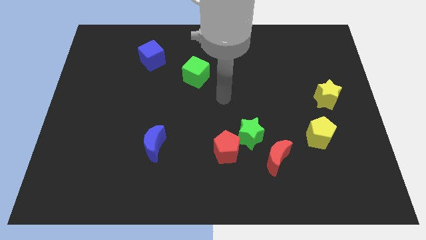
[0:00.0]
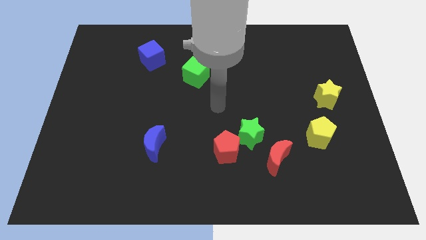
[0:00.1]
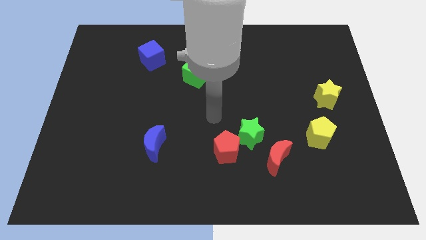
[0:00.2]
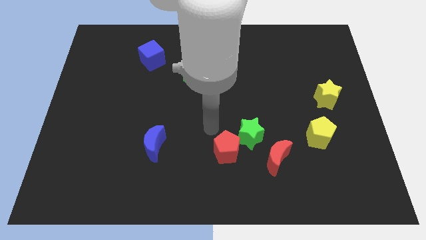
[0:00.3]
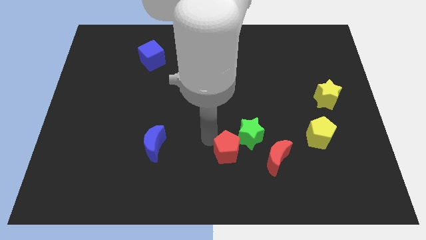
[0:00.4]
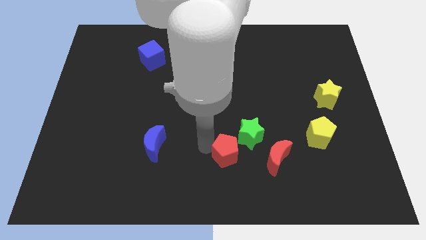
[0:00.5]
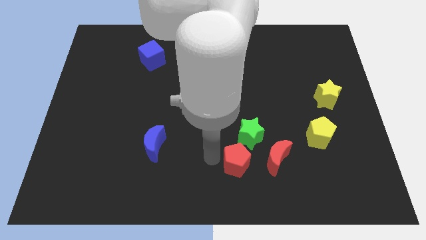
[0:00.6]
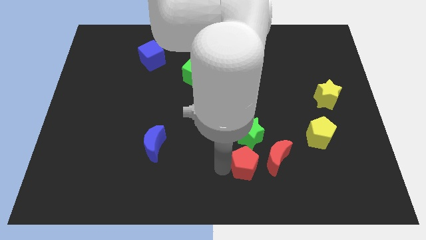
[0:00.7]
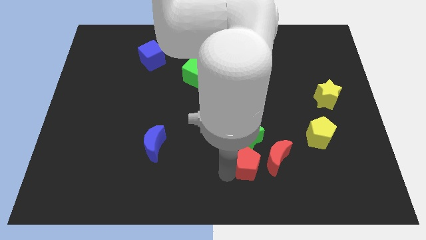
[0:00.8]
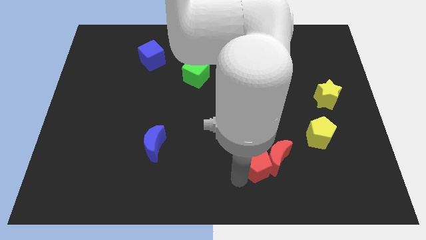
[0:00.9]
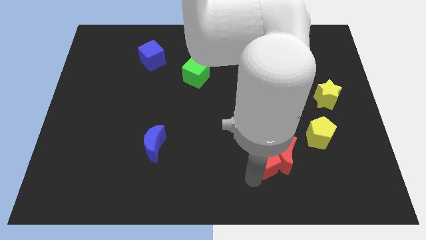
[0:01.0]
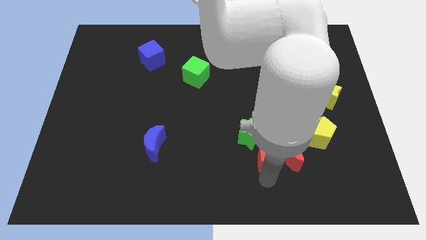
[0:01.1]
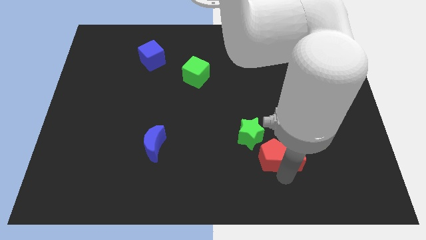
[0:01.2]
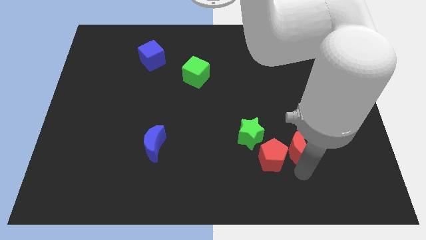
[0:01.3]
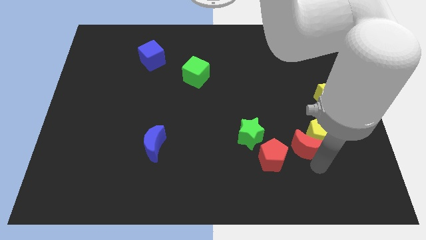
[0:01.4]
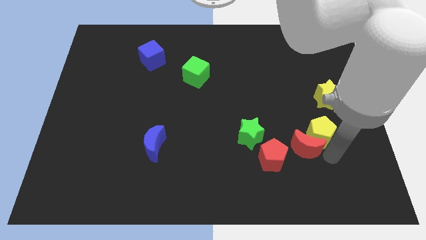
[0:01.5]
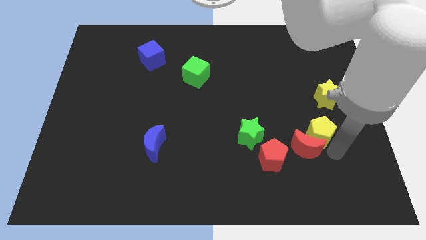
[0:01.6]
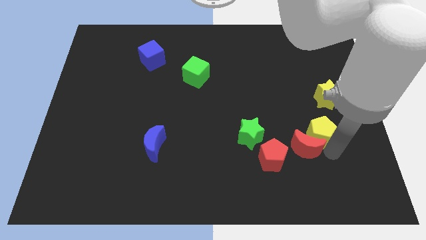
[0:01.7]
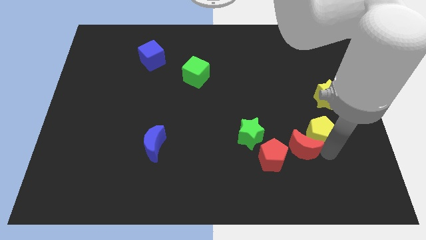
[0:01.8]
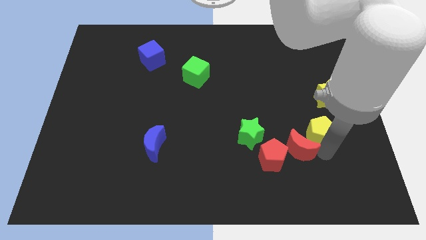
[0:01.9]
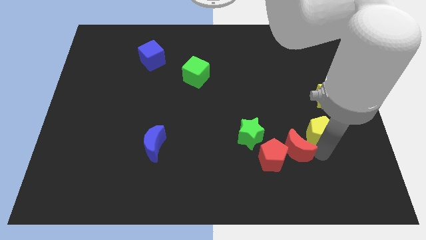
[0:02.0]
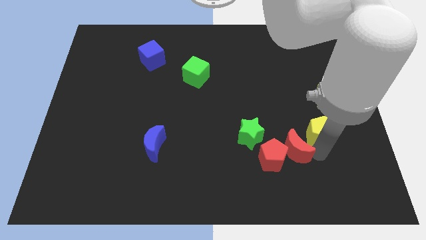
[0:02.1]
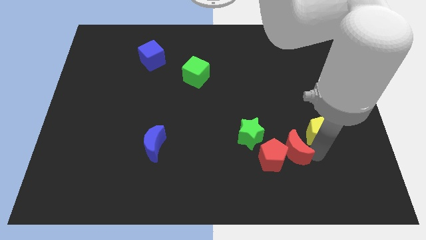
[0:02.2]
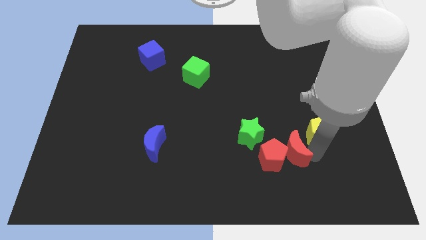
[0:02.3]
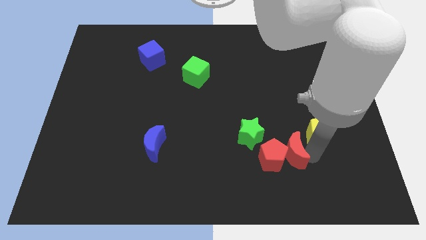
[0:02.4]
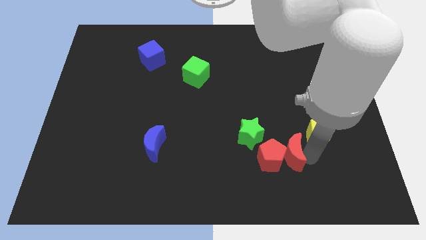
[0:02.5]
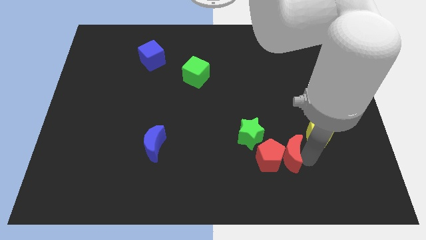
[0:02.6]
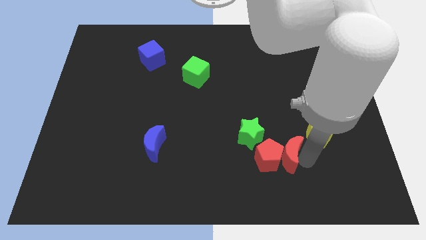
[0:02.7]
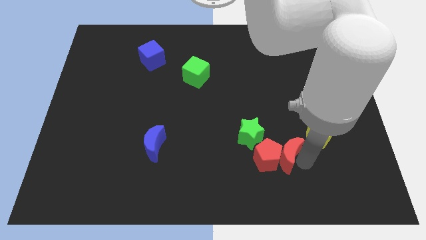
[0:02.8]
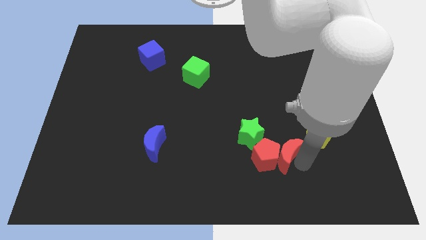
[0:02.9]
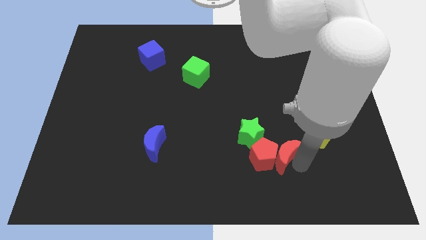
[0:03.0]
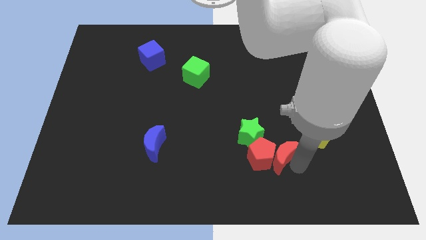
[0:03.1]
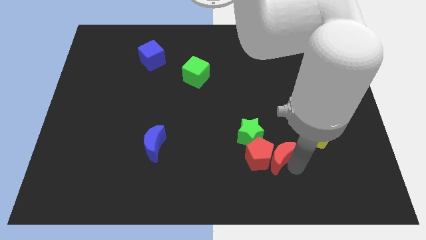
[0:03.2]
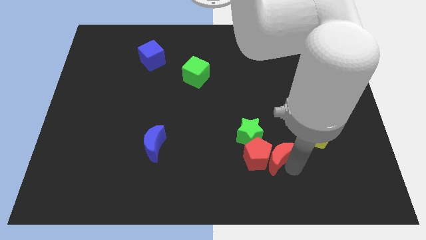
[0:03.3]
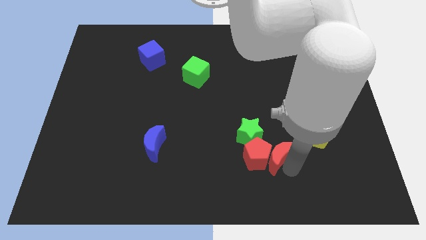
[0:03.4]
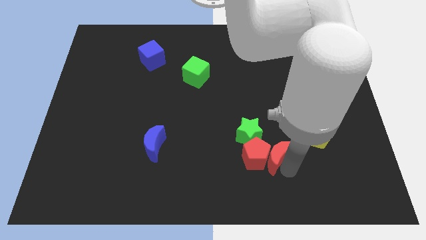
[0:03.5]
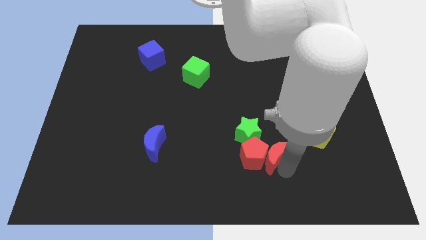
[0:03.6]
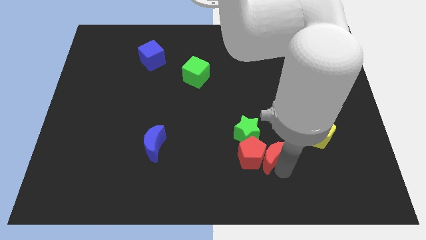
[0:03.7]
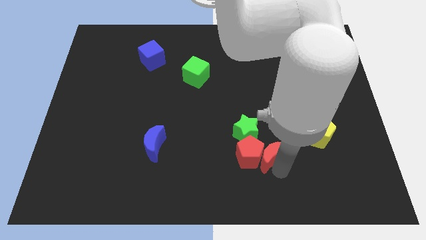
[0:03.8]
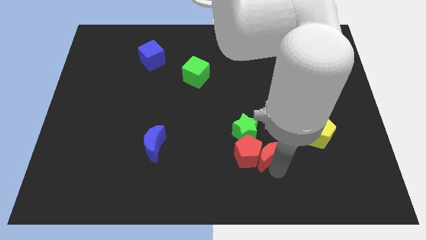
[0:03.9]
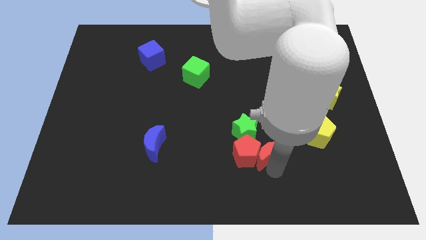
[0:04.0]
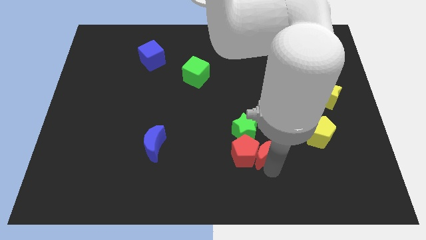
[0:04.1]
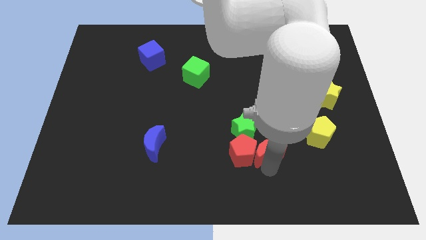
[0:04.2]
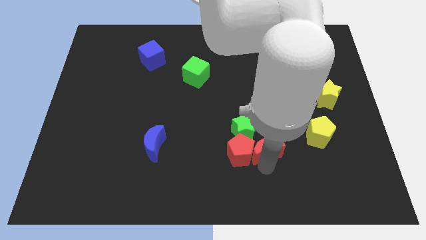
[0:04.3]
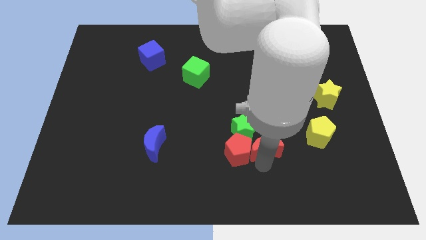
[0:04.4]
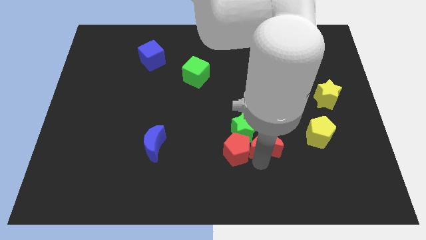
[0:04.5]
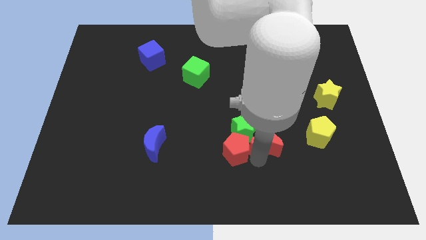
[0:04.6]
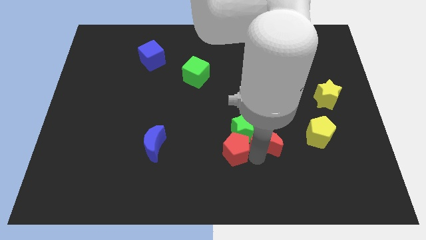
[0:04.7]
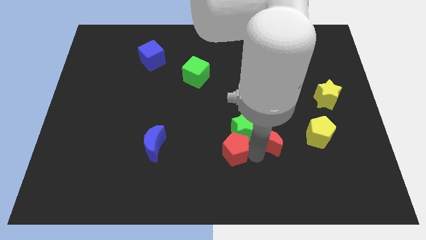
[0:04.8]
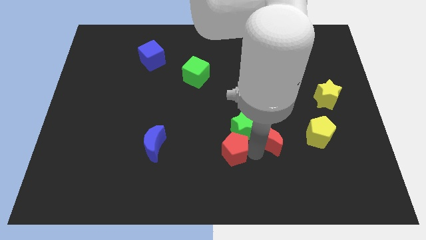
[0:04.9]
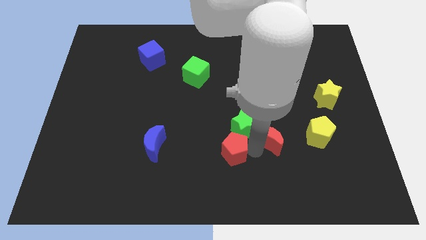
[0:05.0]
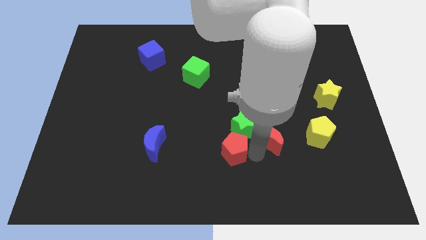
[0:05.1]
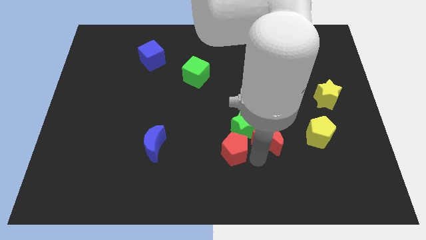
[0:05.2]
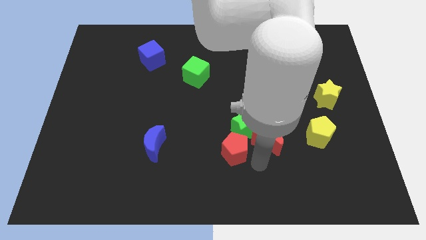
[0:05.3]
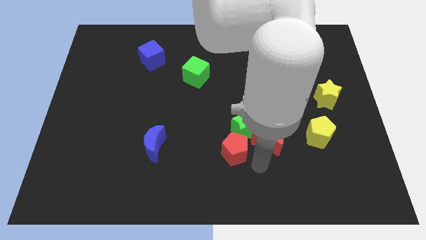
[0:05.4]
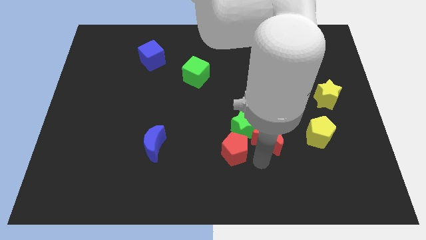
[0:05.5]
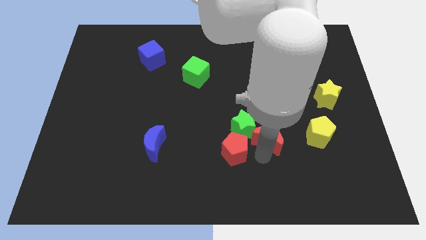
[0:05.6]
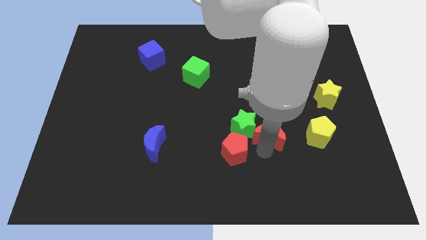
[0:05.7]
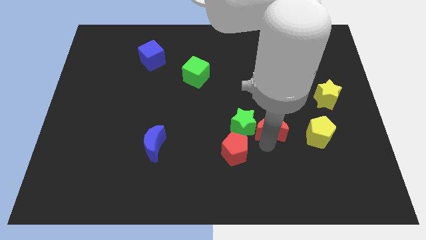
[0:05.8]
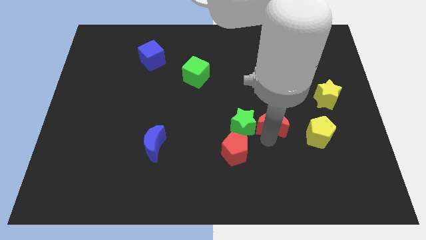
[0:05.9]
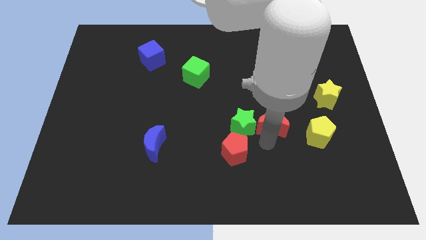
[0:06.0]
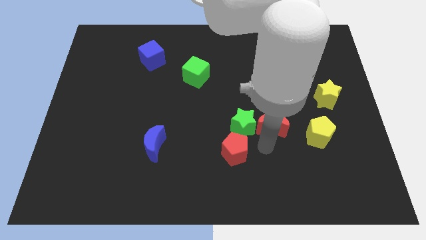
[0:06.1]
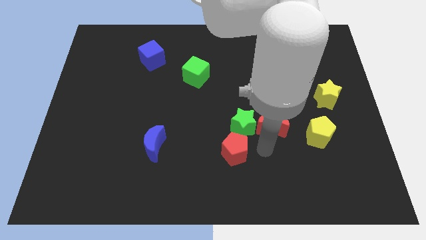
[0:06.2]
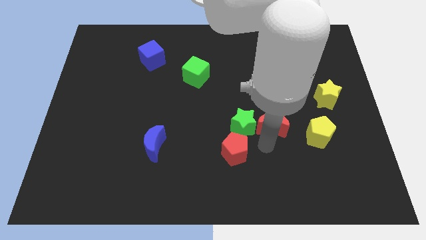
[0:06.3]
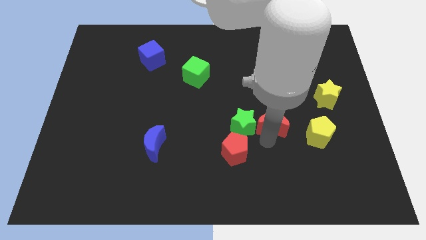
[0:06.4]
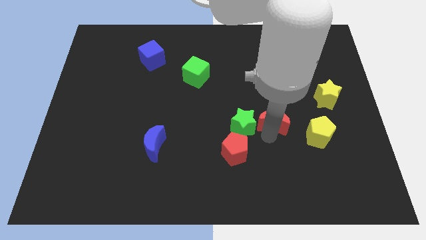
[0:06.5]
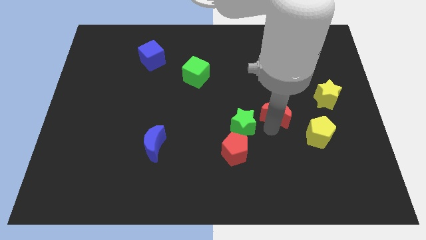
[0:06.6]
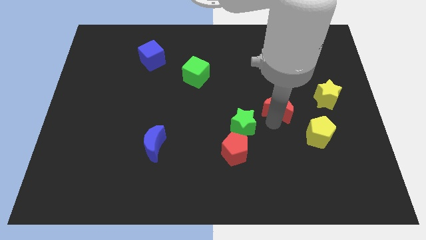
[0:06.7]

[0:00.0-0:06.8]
push the red moon just left of the yellow star

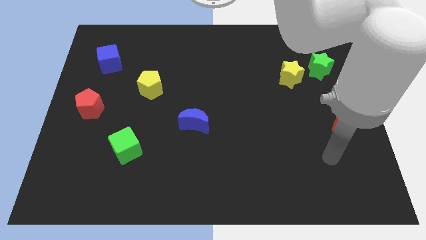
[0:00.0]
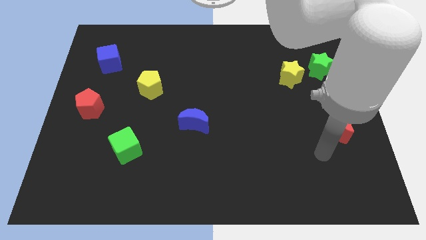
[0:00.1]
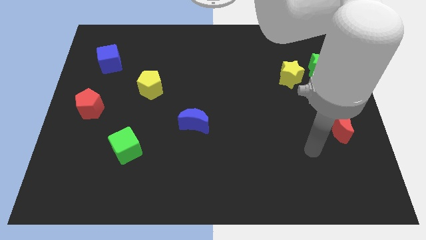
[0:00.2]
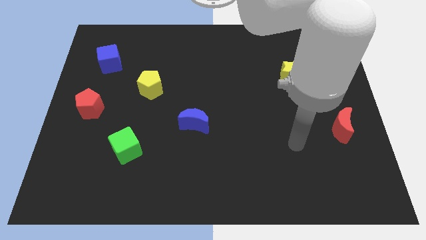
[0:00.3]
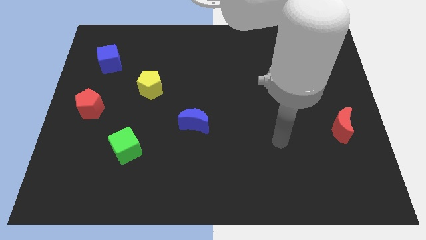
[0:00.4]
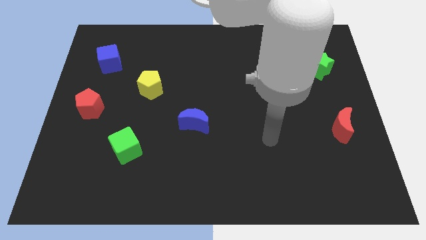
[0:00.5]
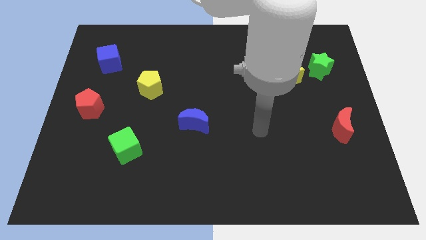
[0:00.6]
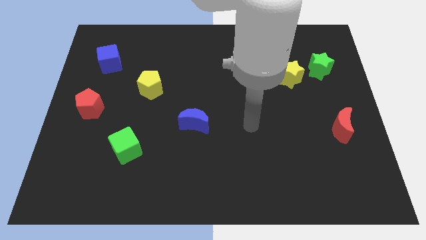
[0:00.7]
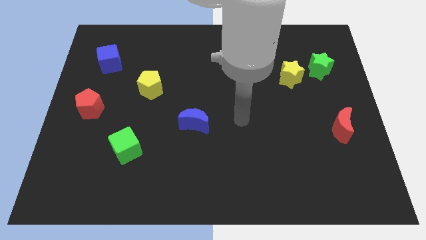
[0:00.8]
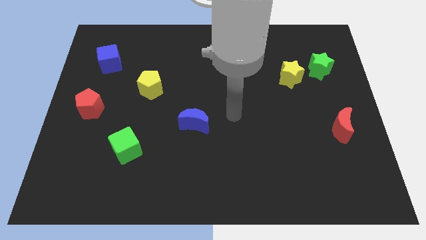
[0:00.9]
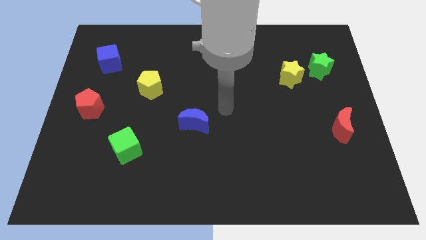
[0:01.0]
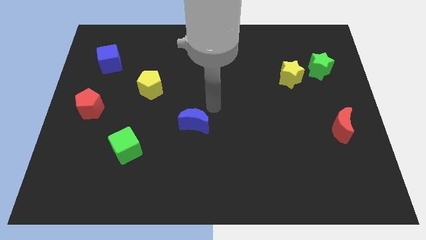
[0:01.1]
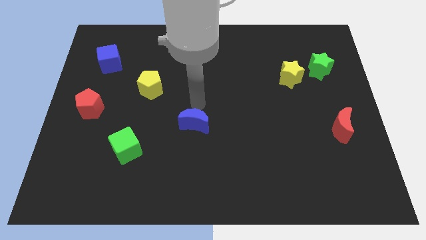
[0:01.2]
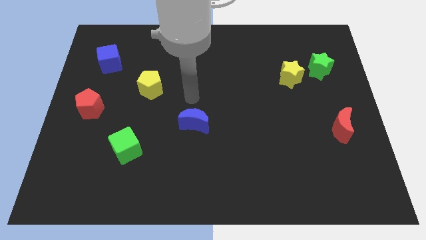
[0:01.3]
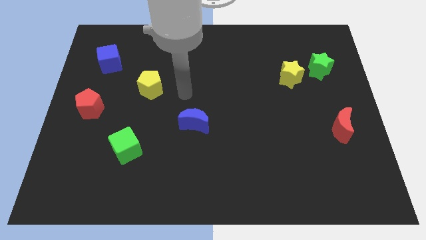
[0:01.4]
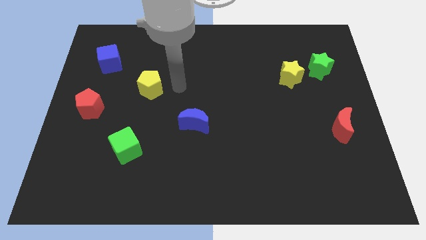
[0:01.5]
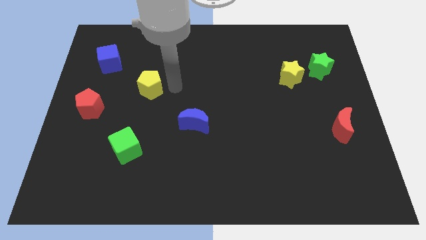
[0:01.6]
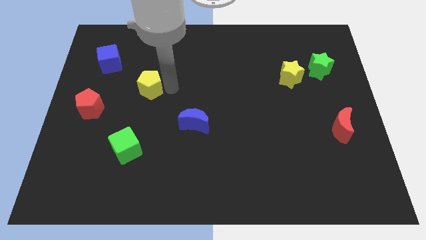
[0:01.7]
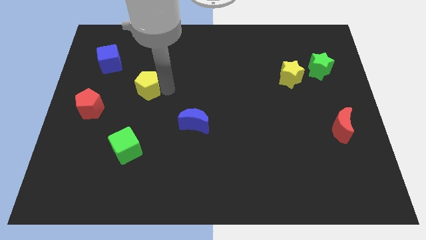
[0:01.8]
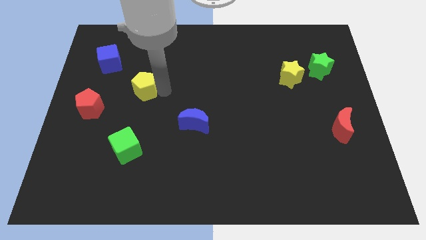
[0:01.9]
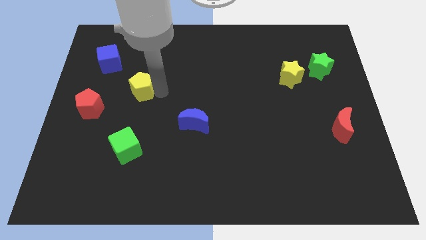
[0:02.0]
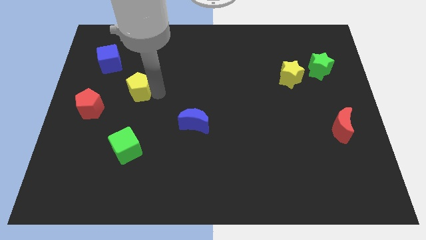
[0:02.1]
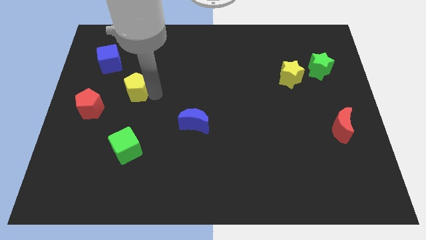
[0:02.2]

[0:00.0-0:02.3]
move the yellow pentagon to the top right side of the red pentagon
